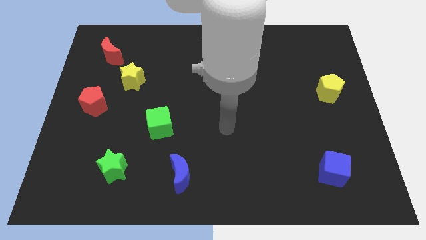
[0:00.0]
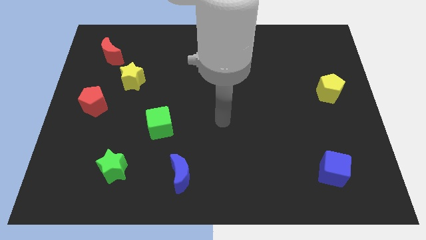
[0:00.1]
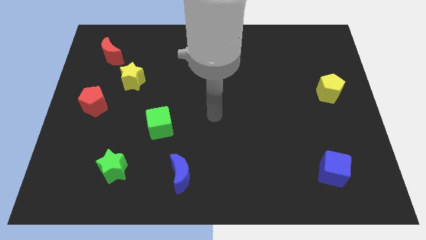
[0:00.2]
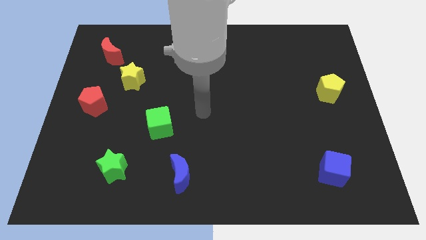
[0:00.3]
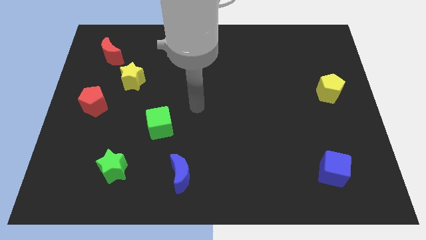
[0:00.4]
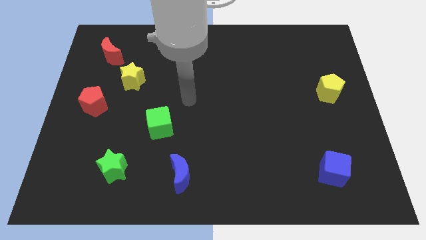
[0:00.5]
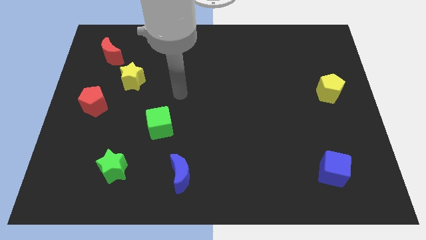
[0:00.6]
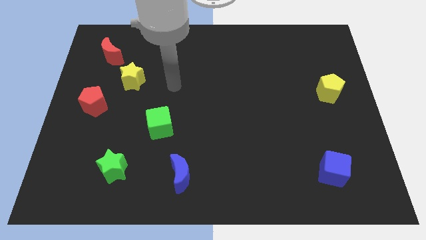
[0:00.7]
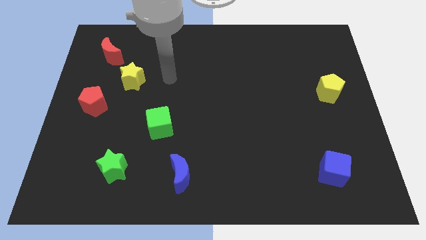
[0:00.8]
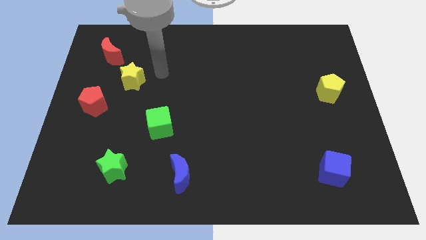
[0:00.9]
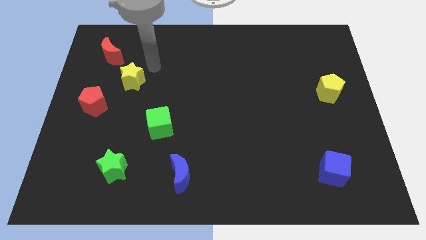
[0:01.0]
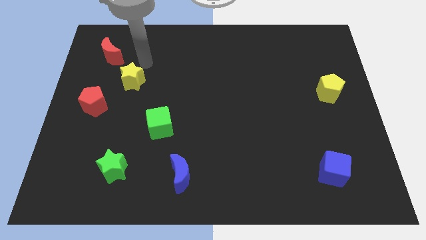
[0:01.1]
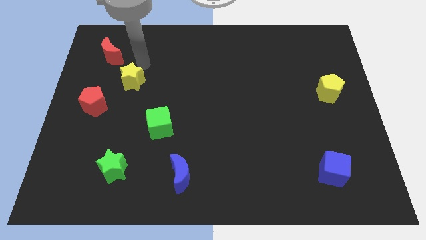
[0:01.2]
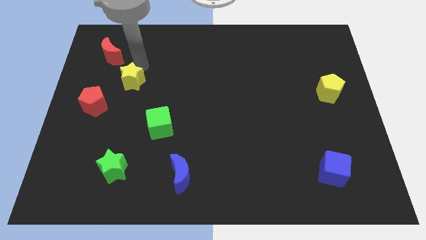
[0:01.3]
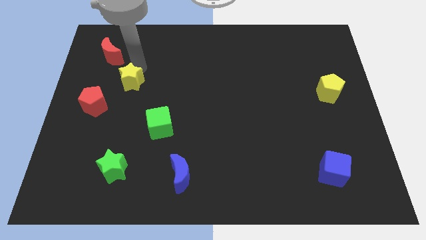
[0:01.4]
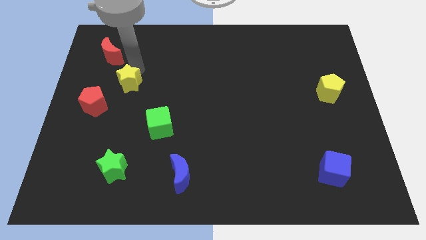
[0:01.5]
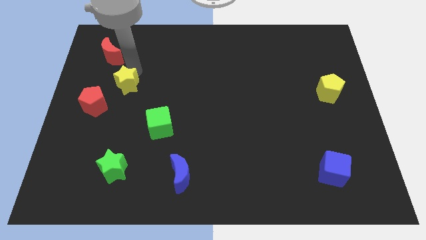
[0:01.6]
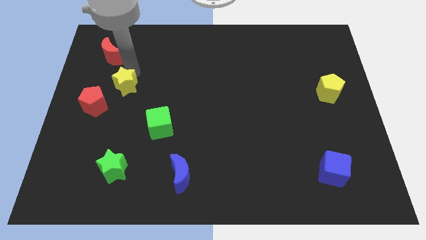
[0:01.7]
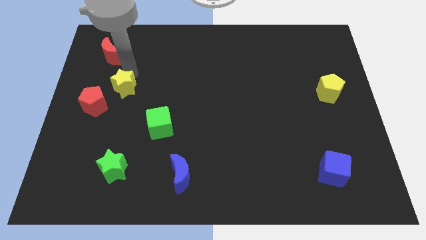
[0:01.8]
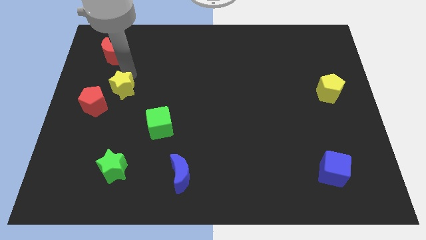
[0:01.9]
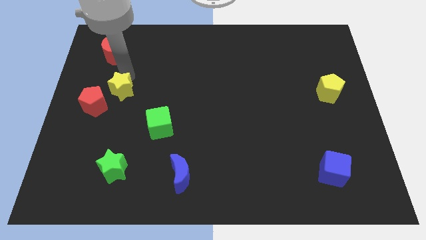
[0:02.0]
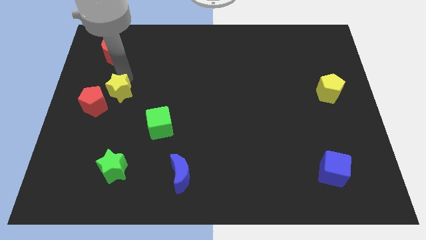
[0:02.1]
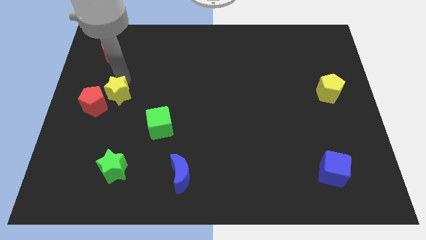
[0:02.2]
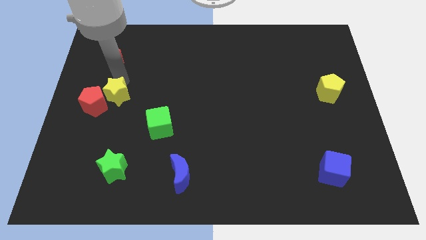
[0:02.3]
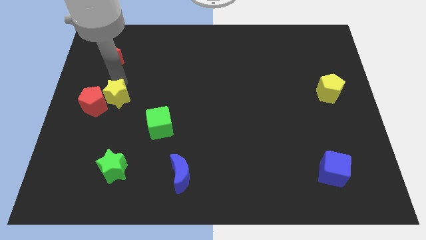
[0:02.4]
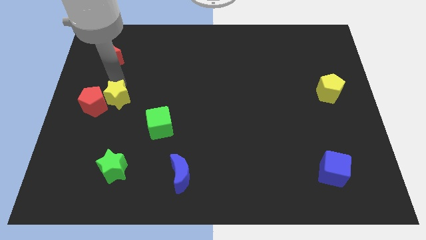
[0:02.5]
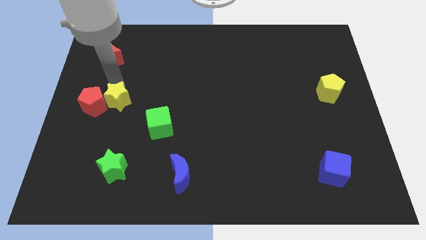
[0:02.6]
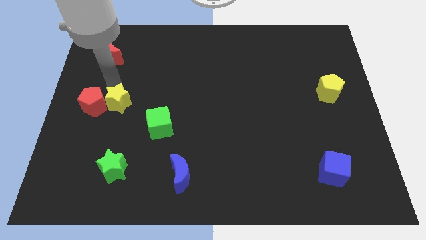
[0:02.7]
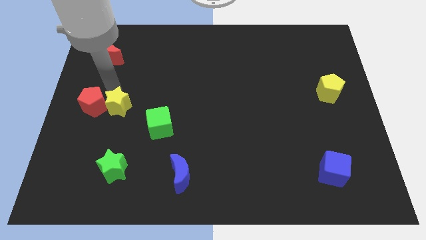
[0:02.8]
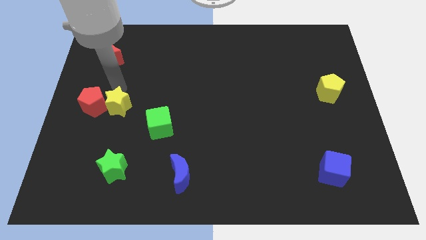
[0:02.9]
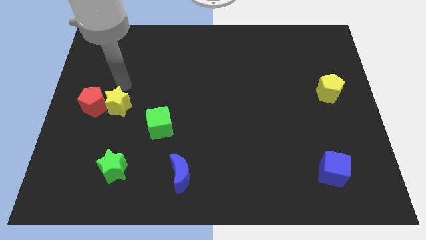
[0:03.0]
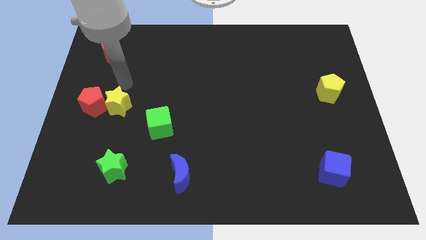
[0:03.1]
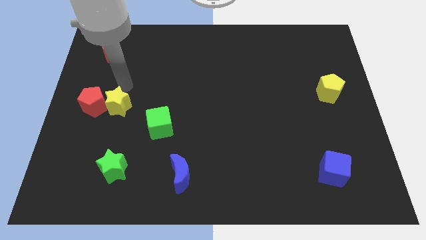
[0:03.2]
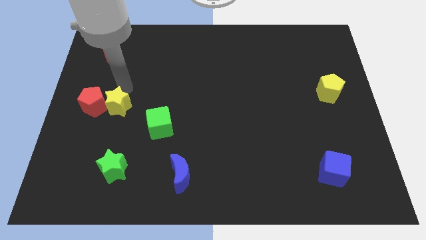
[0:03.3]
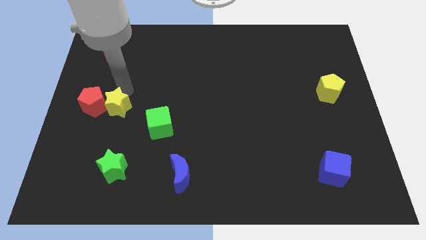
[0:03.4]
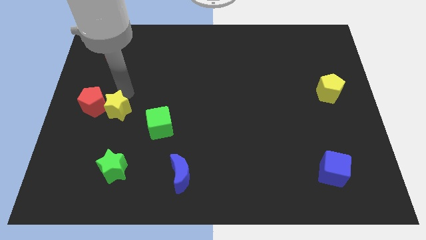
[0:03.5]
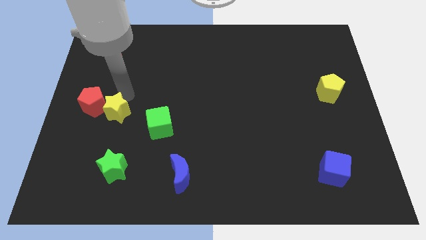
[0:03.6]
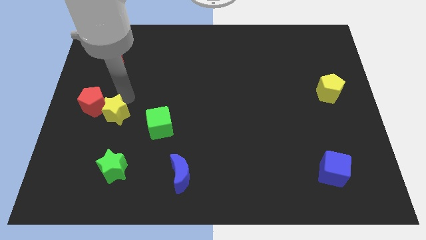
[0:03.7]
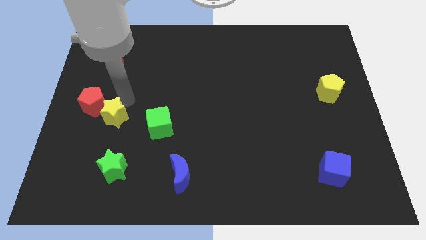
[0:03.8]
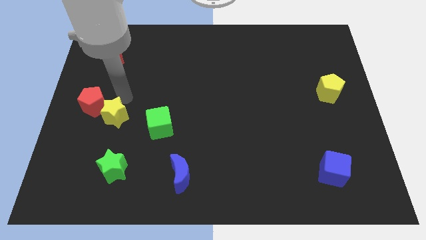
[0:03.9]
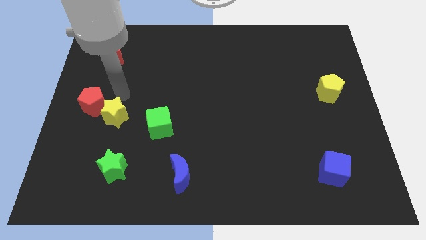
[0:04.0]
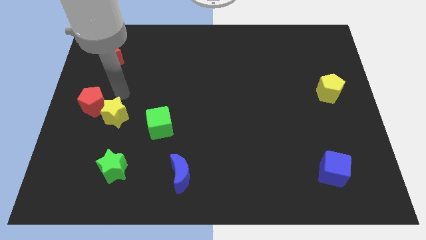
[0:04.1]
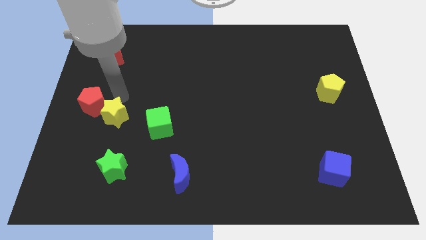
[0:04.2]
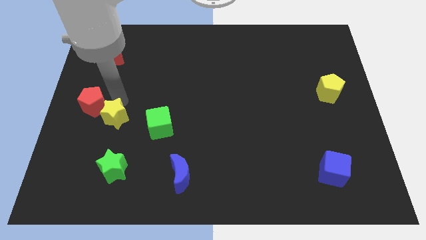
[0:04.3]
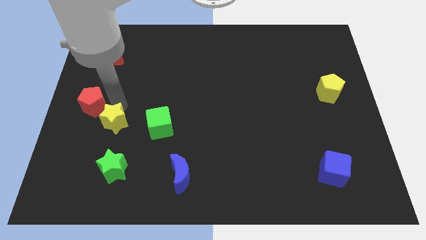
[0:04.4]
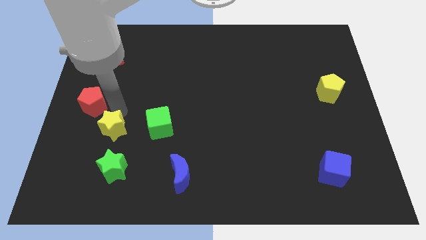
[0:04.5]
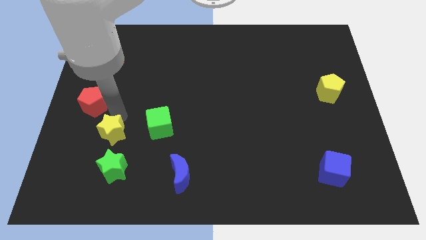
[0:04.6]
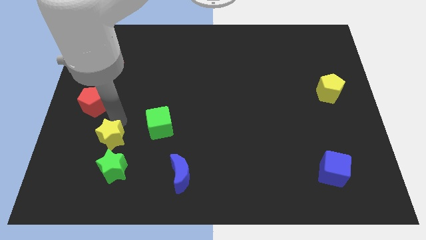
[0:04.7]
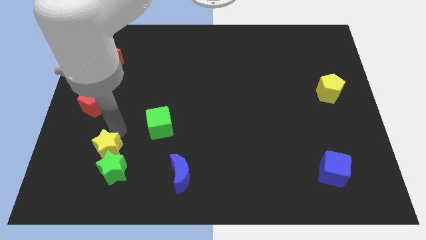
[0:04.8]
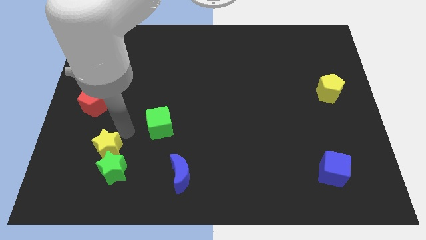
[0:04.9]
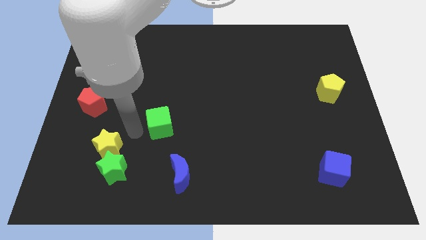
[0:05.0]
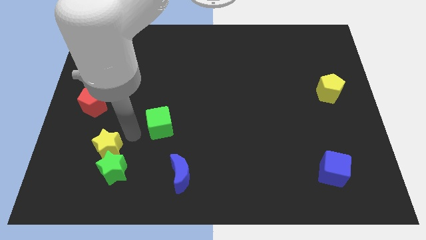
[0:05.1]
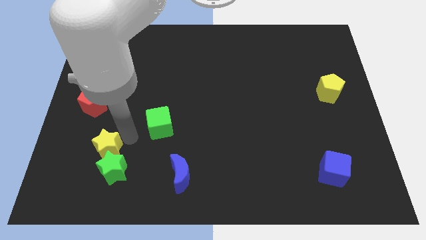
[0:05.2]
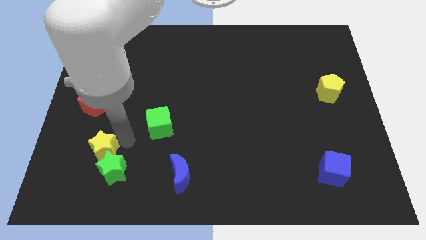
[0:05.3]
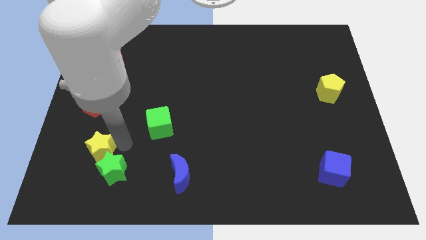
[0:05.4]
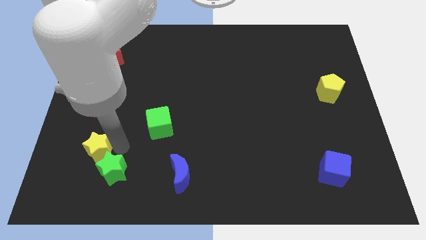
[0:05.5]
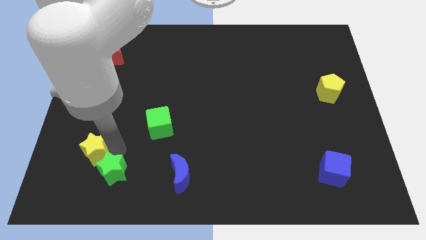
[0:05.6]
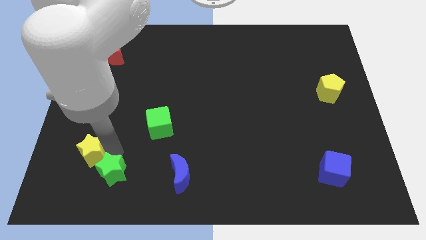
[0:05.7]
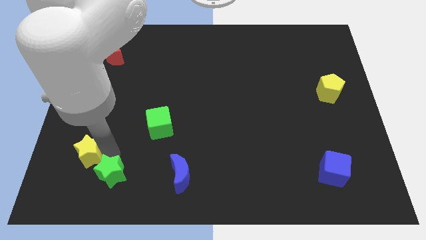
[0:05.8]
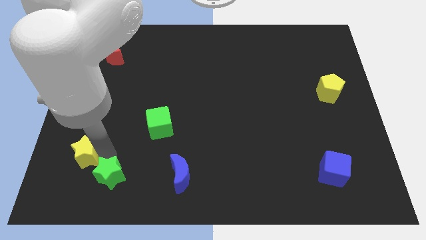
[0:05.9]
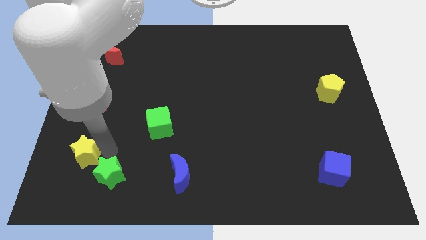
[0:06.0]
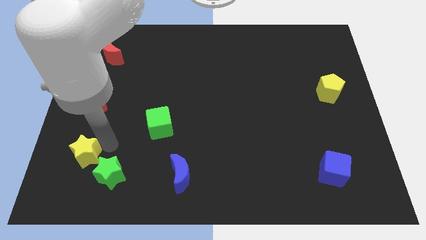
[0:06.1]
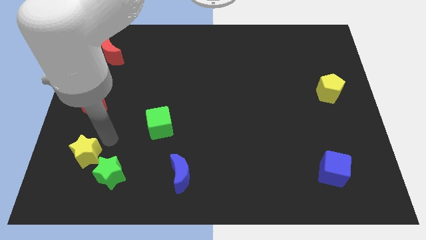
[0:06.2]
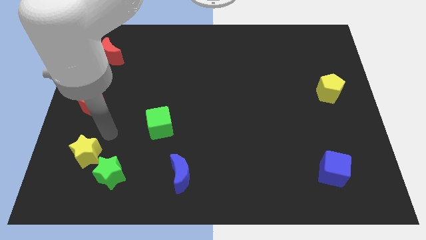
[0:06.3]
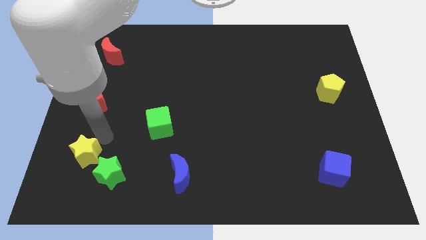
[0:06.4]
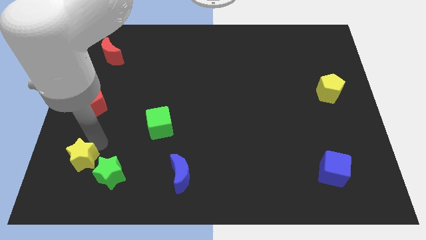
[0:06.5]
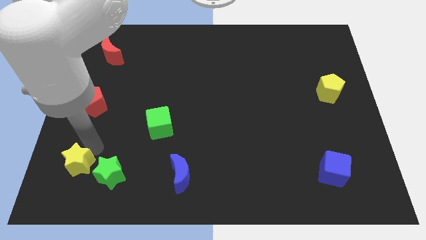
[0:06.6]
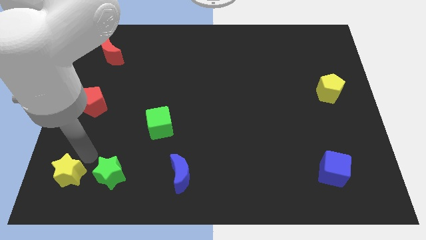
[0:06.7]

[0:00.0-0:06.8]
put the yellow star to the lower left corner
